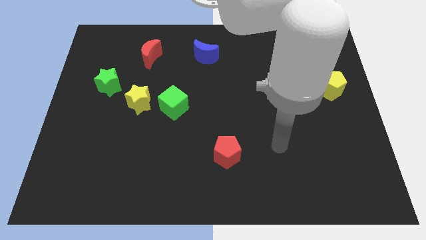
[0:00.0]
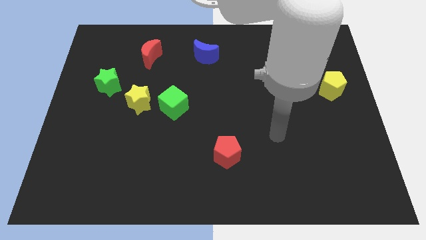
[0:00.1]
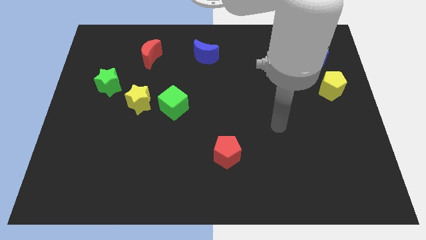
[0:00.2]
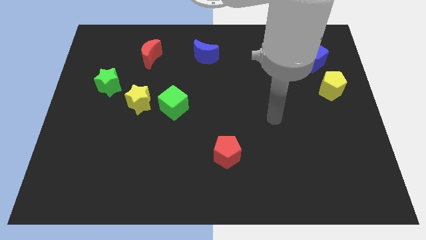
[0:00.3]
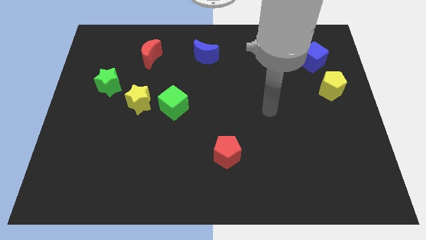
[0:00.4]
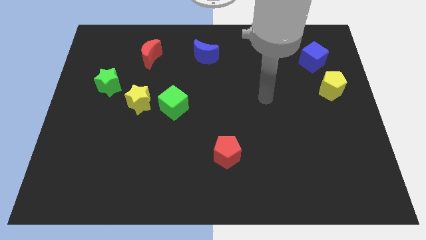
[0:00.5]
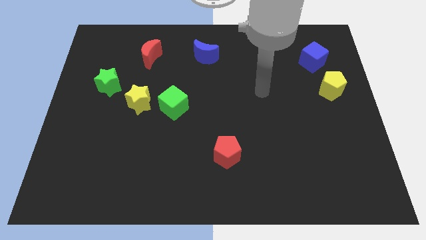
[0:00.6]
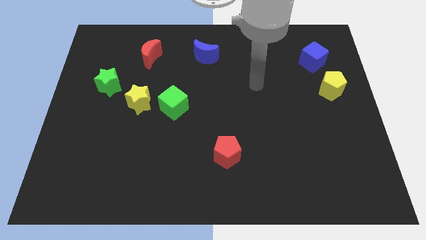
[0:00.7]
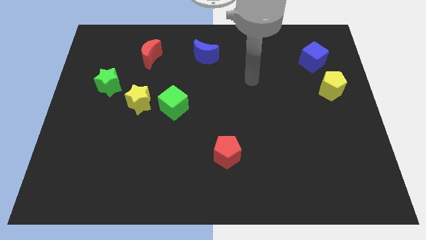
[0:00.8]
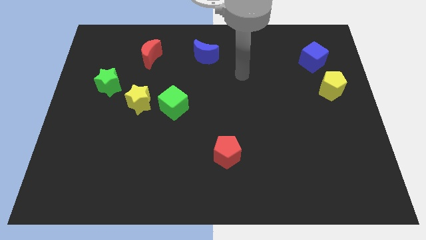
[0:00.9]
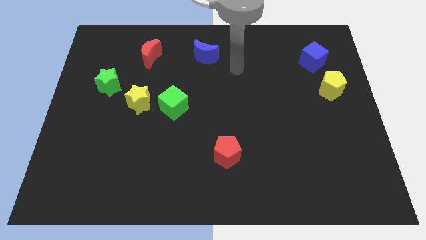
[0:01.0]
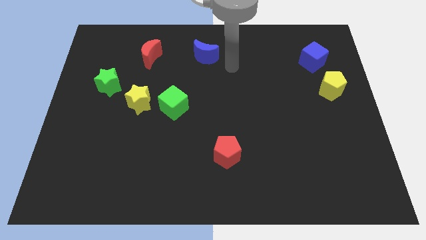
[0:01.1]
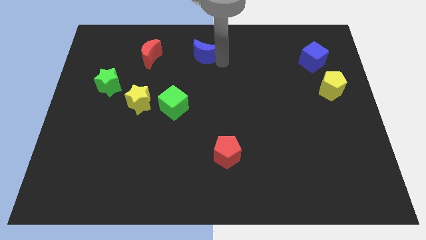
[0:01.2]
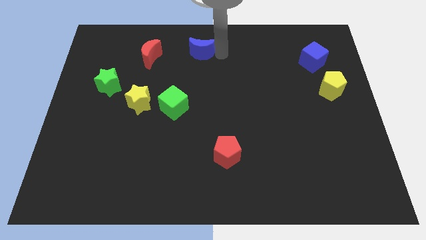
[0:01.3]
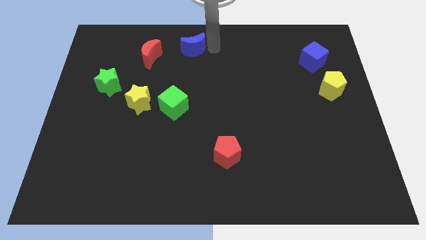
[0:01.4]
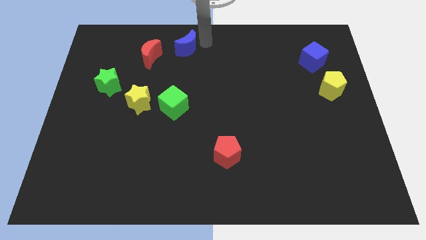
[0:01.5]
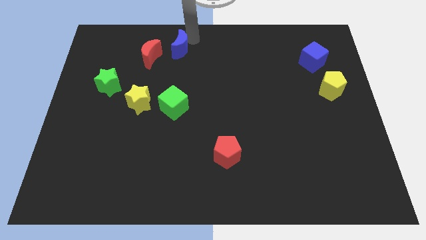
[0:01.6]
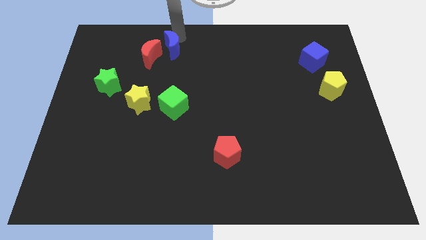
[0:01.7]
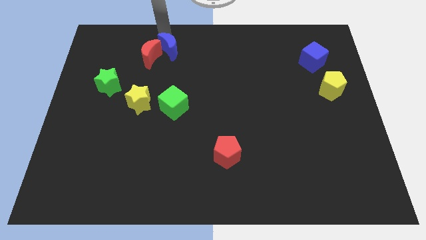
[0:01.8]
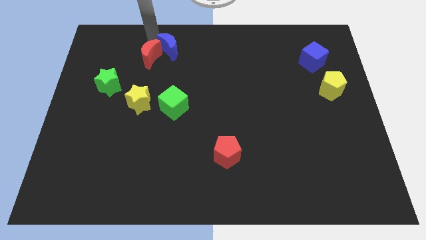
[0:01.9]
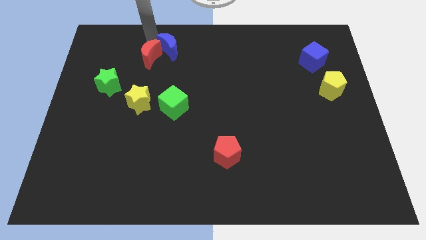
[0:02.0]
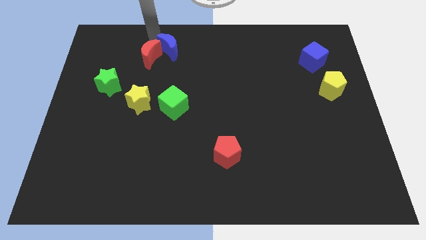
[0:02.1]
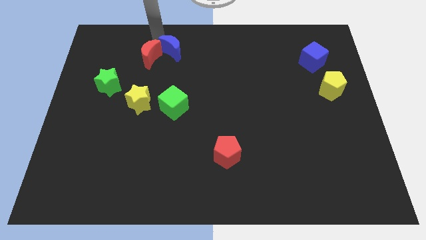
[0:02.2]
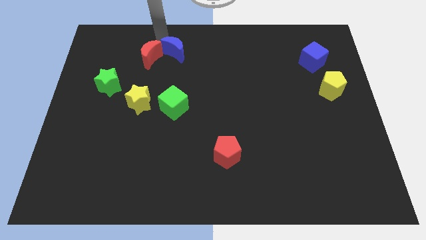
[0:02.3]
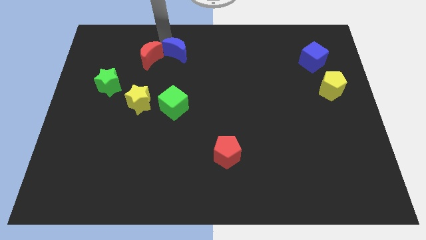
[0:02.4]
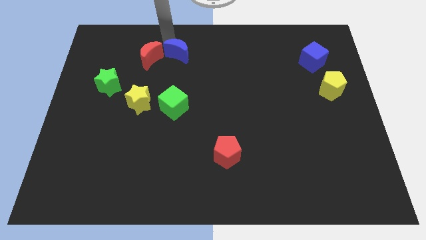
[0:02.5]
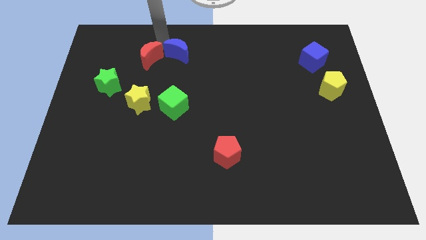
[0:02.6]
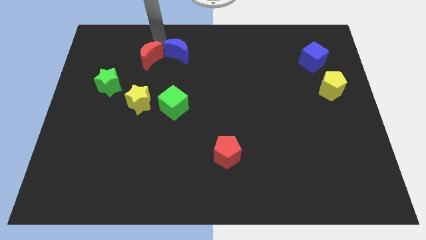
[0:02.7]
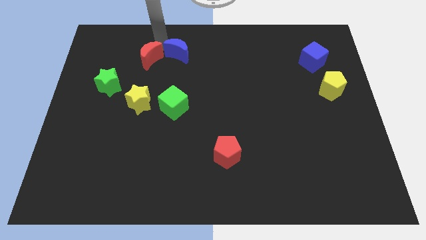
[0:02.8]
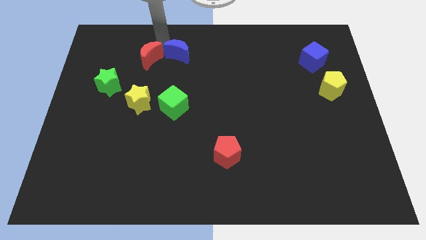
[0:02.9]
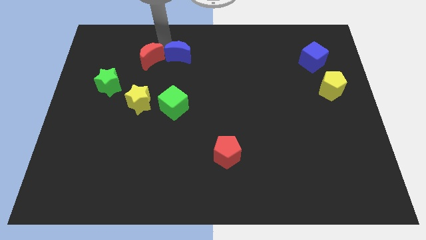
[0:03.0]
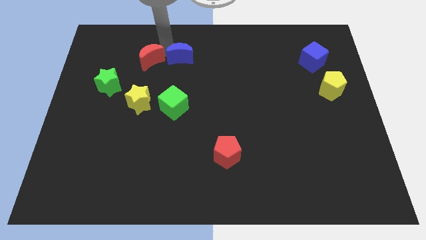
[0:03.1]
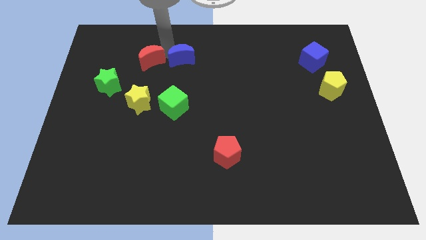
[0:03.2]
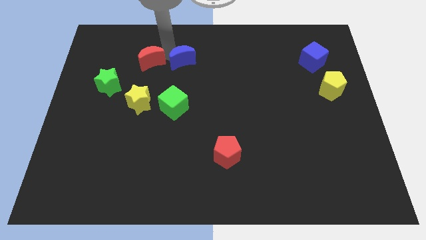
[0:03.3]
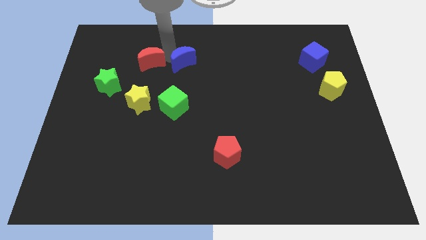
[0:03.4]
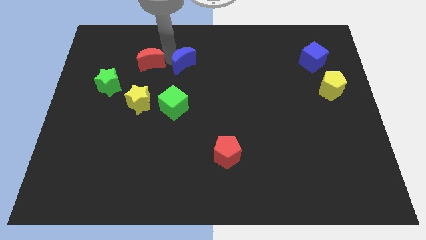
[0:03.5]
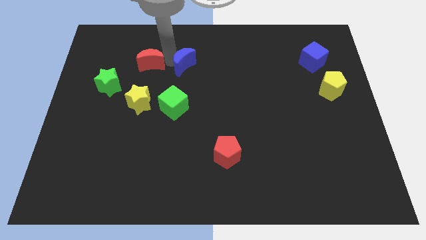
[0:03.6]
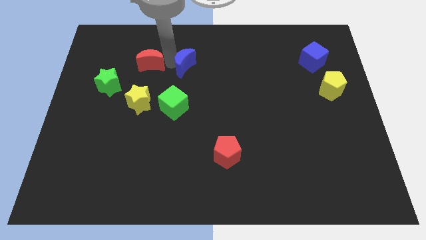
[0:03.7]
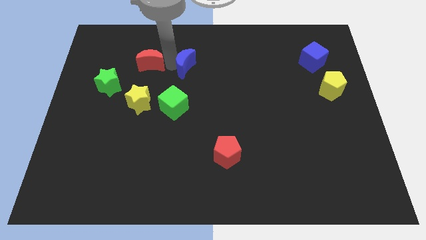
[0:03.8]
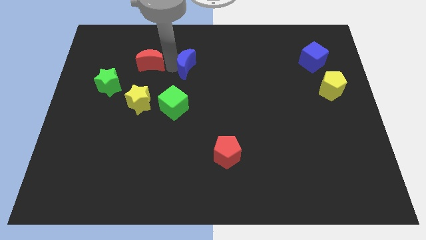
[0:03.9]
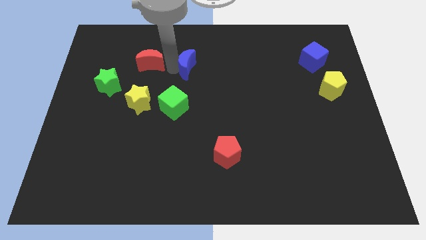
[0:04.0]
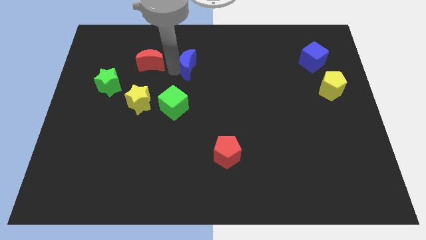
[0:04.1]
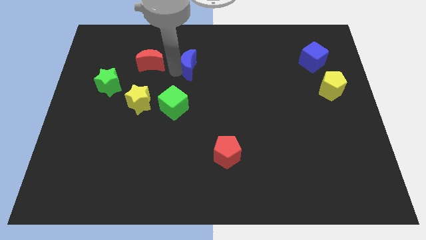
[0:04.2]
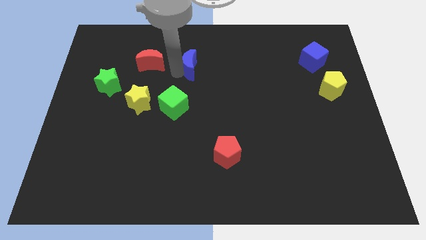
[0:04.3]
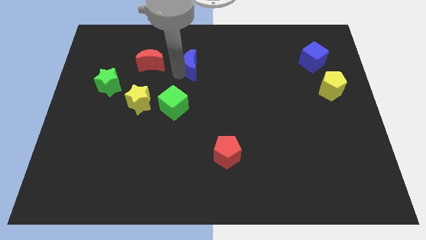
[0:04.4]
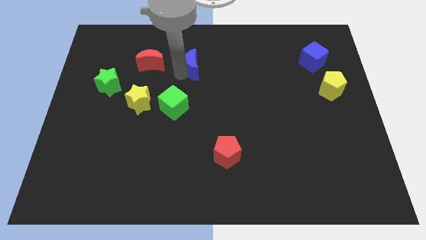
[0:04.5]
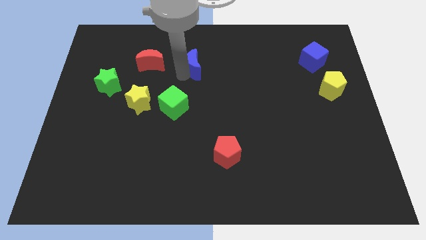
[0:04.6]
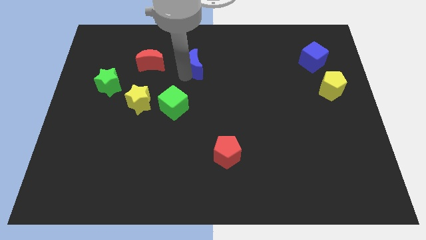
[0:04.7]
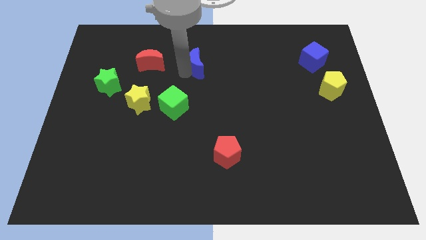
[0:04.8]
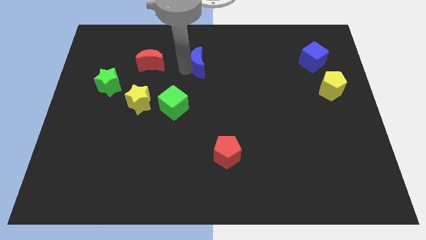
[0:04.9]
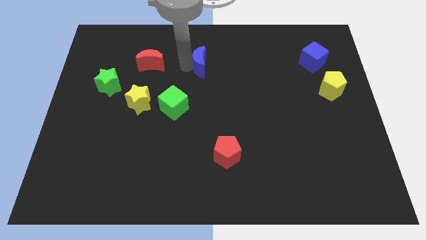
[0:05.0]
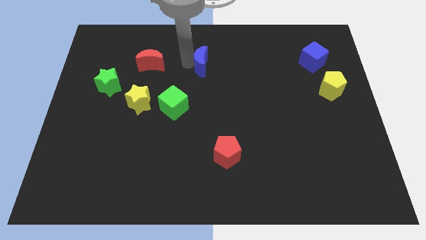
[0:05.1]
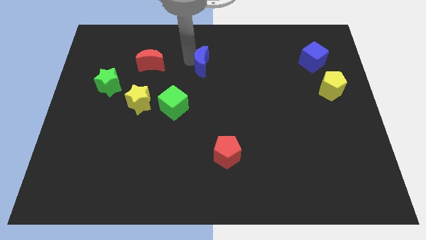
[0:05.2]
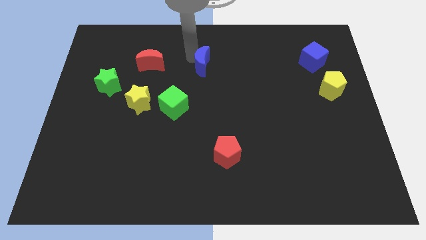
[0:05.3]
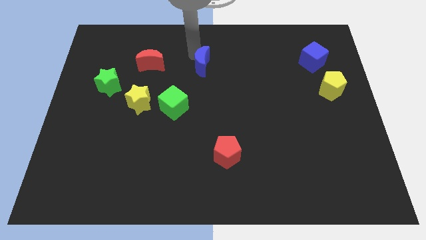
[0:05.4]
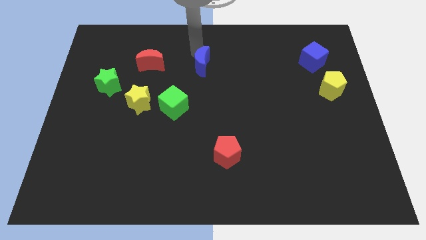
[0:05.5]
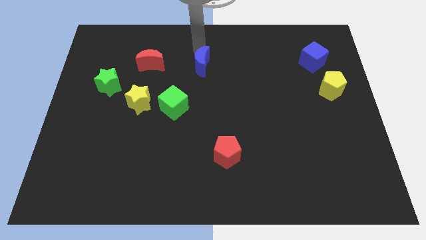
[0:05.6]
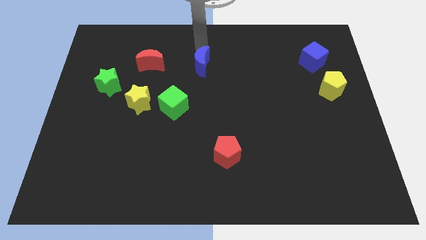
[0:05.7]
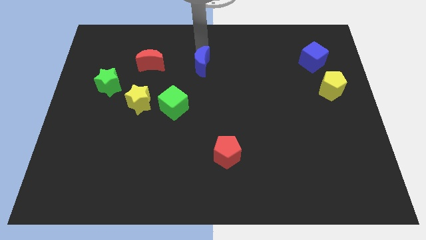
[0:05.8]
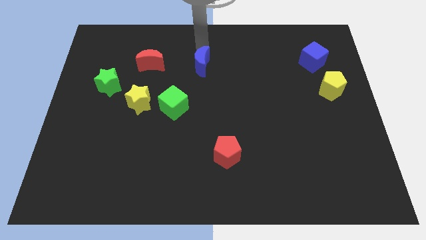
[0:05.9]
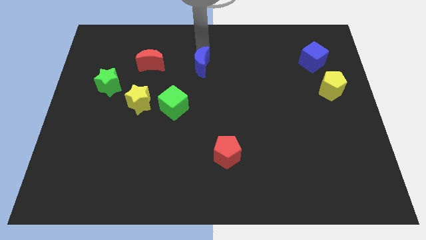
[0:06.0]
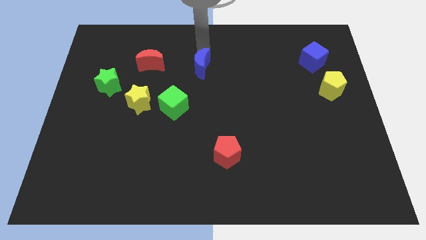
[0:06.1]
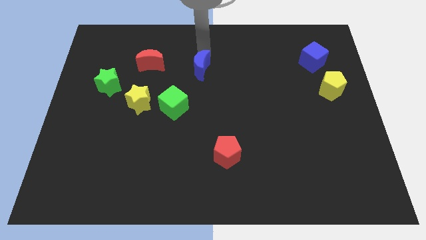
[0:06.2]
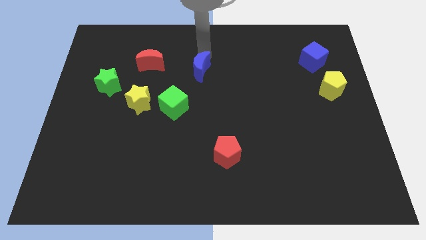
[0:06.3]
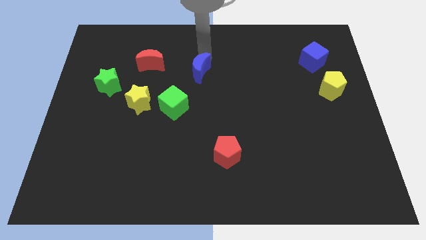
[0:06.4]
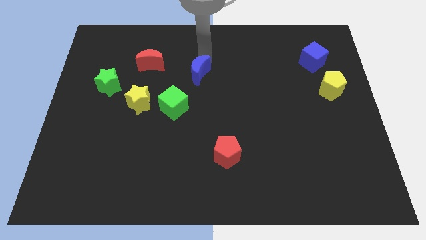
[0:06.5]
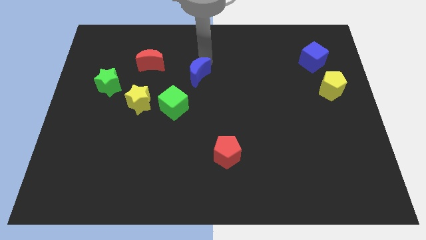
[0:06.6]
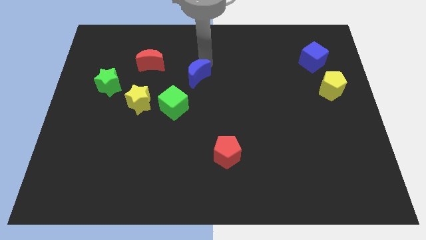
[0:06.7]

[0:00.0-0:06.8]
slightly push the blue moon down

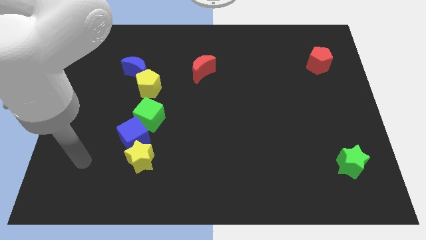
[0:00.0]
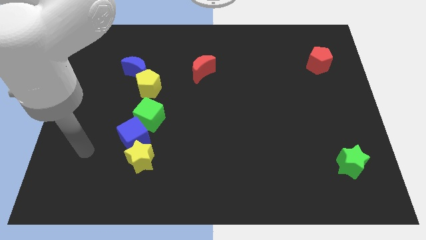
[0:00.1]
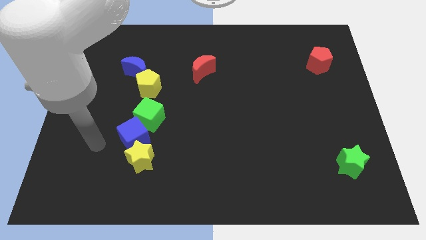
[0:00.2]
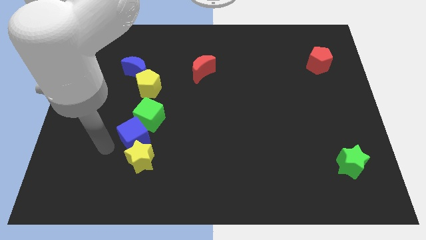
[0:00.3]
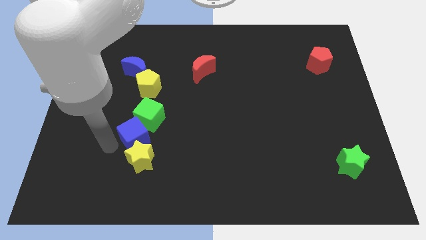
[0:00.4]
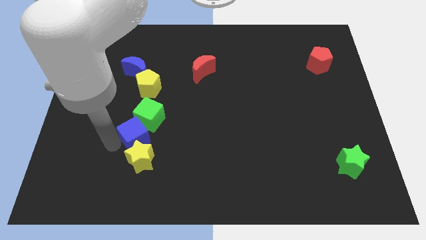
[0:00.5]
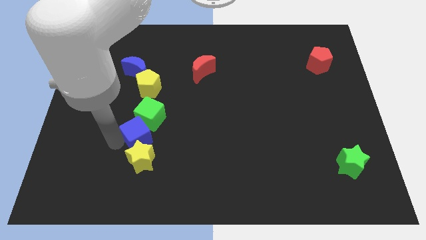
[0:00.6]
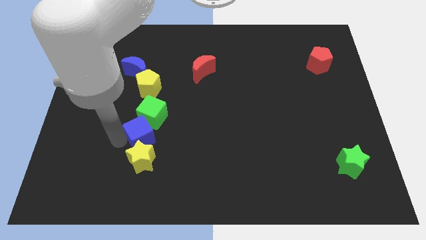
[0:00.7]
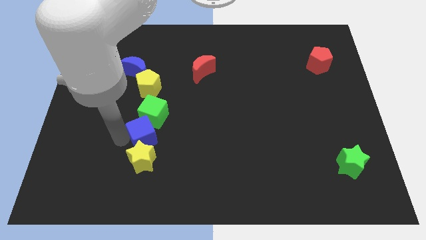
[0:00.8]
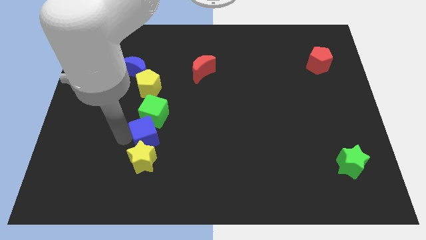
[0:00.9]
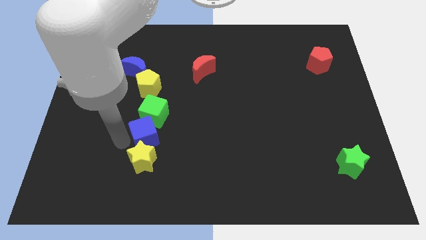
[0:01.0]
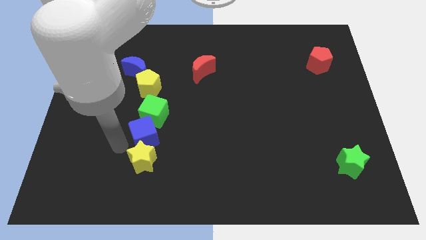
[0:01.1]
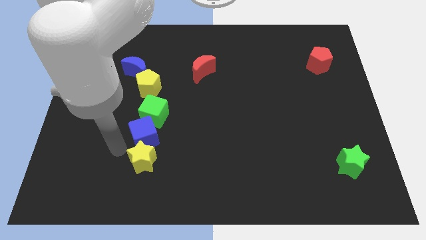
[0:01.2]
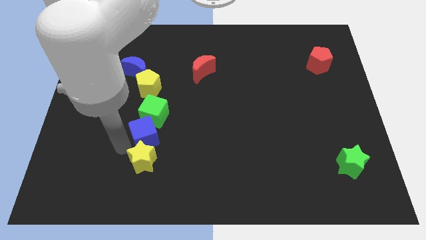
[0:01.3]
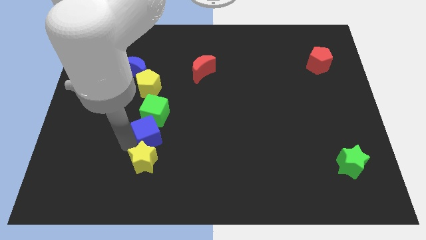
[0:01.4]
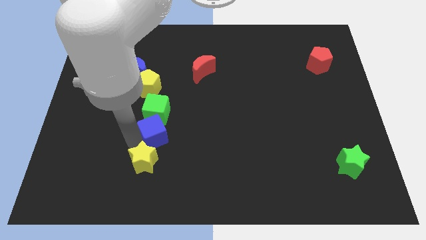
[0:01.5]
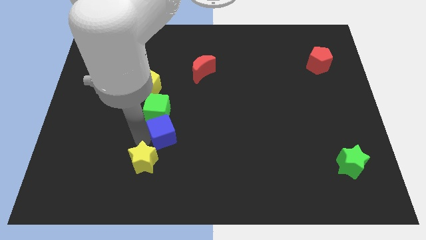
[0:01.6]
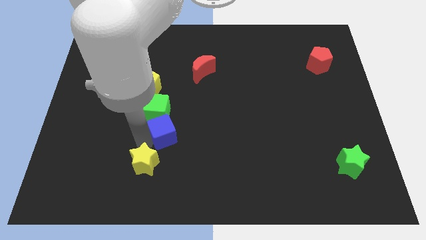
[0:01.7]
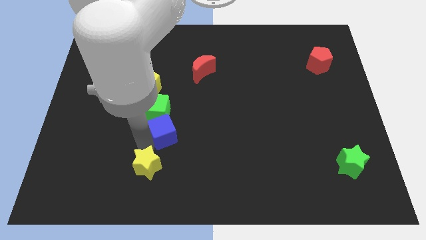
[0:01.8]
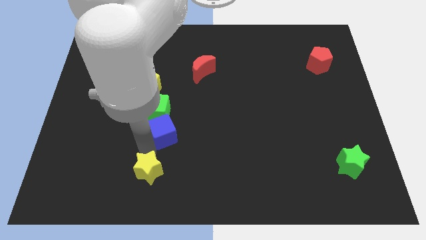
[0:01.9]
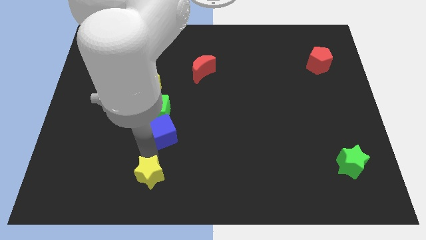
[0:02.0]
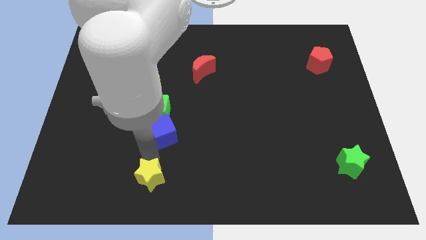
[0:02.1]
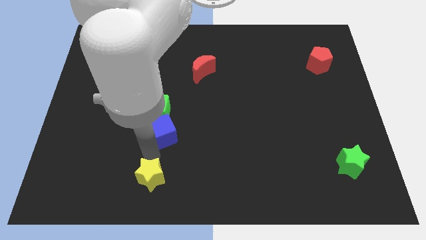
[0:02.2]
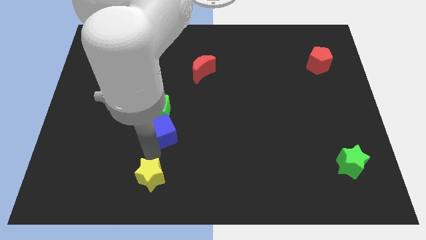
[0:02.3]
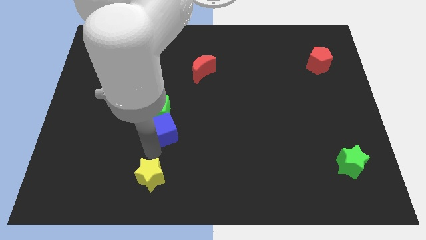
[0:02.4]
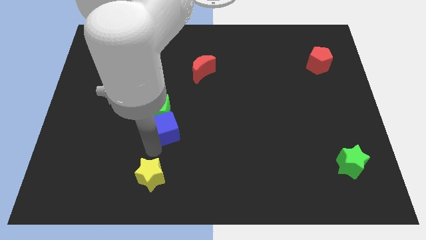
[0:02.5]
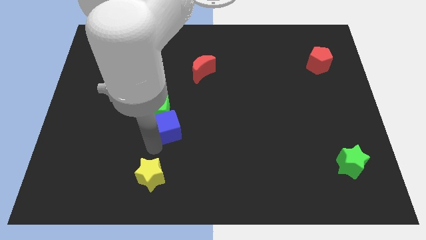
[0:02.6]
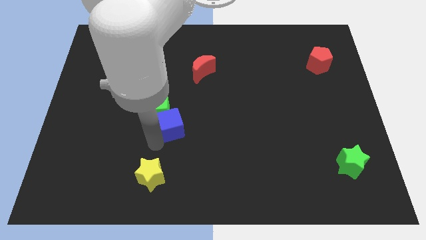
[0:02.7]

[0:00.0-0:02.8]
slightly push the blue cube up and then right
